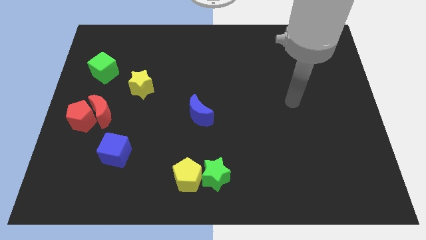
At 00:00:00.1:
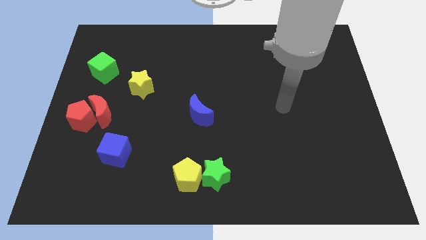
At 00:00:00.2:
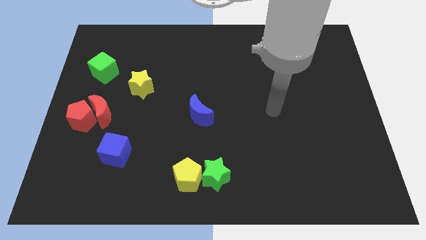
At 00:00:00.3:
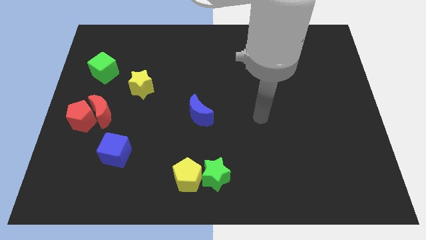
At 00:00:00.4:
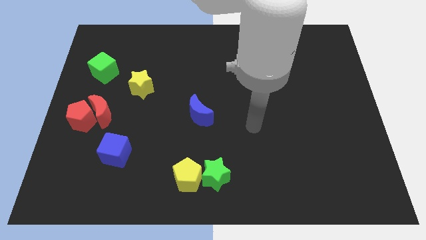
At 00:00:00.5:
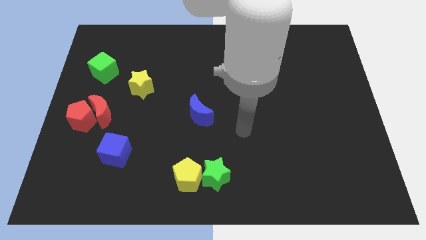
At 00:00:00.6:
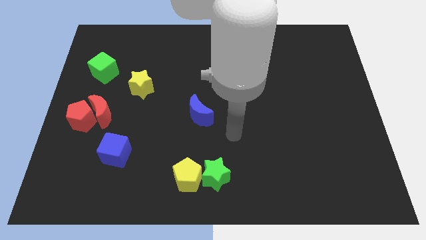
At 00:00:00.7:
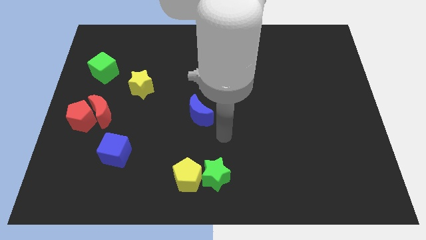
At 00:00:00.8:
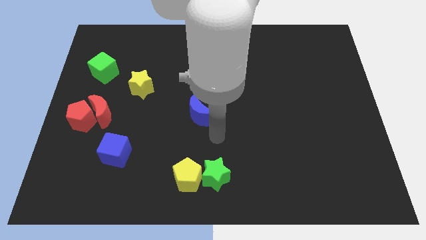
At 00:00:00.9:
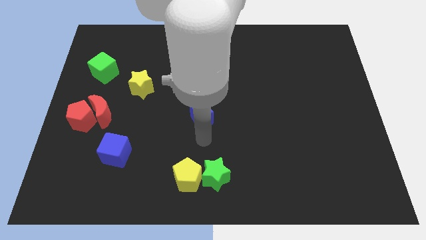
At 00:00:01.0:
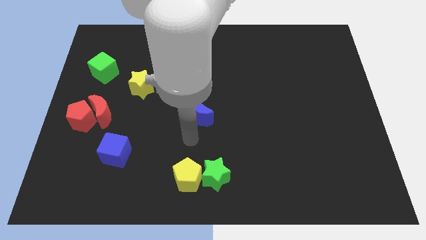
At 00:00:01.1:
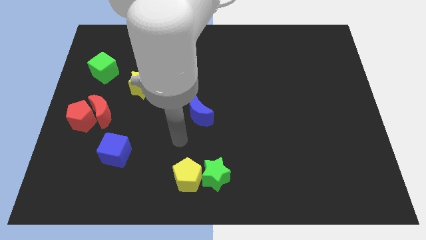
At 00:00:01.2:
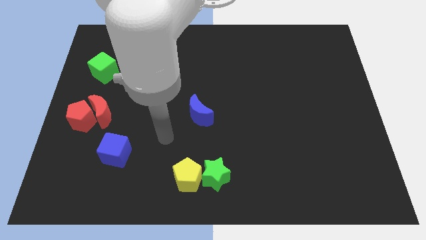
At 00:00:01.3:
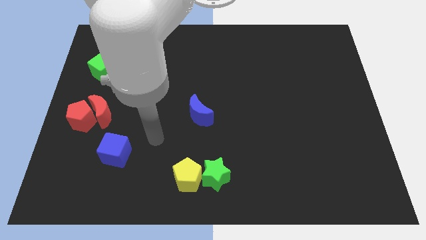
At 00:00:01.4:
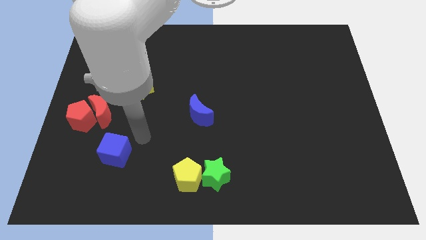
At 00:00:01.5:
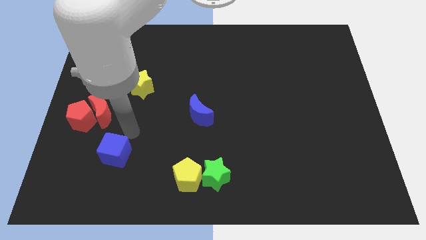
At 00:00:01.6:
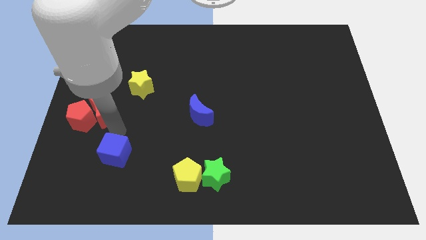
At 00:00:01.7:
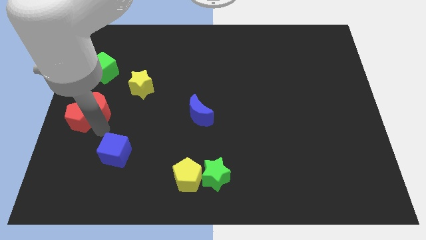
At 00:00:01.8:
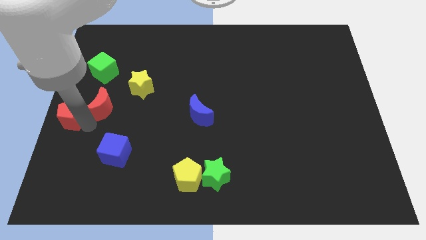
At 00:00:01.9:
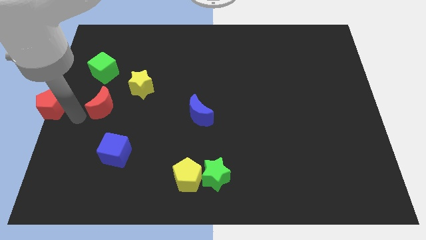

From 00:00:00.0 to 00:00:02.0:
move the red moon away from the red pentagon

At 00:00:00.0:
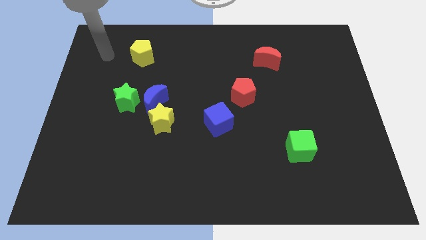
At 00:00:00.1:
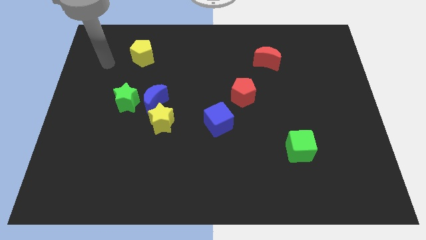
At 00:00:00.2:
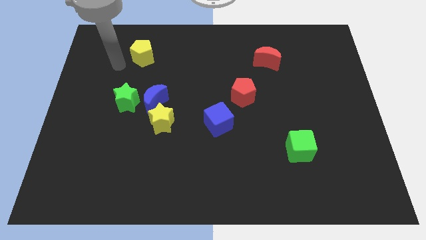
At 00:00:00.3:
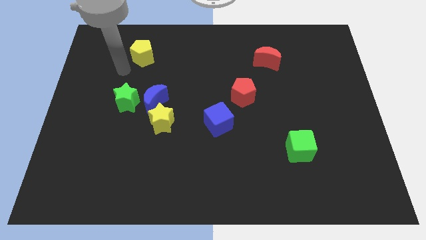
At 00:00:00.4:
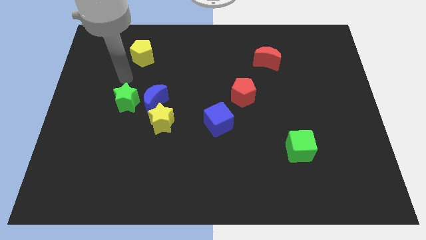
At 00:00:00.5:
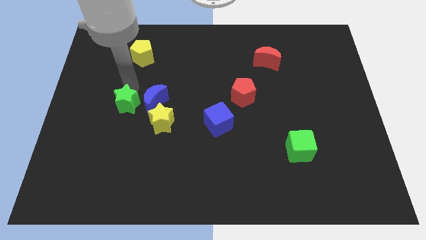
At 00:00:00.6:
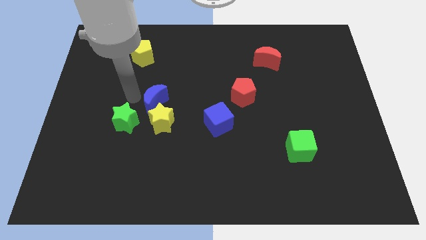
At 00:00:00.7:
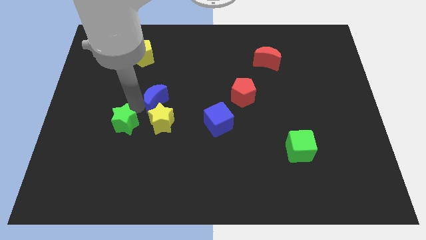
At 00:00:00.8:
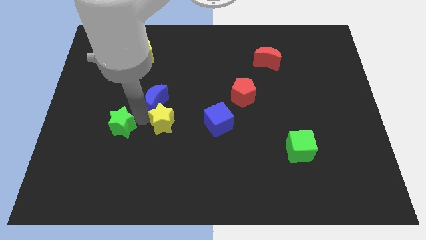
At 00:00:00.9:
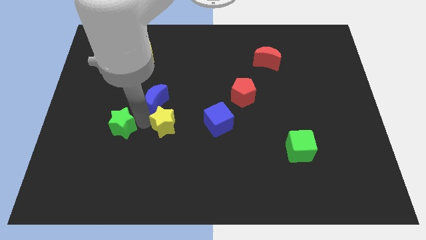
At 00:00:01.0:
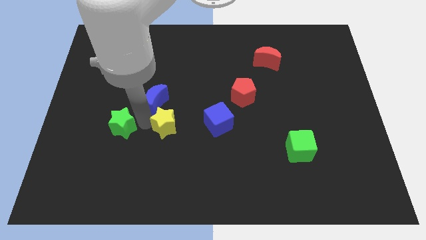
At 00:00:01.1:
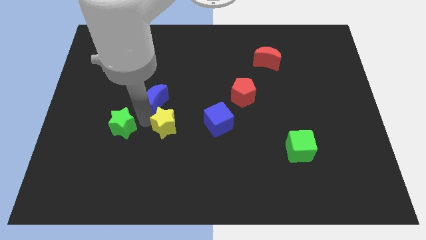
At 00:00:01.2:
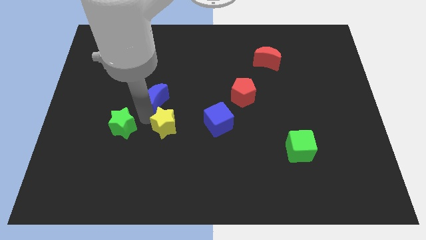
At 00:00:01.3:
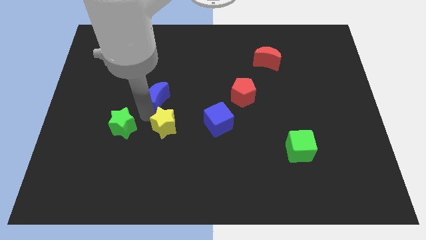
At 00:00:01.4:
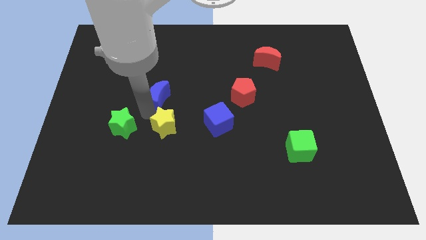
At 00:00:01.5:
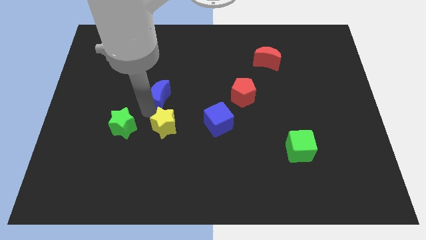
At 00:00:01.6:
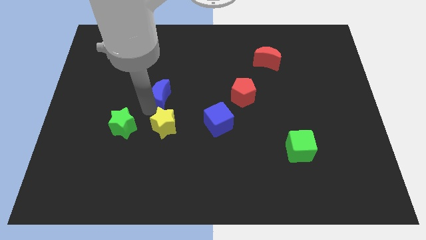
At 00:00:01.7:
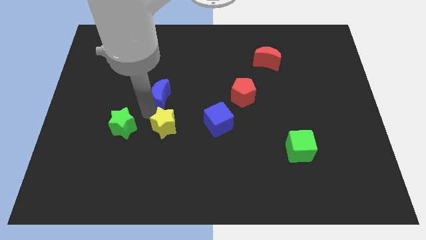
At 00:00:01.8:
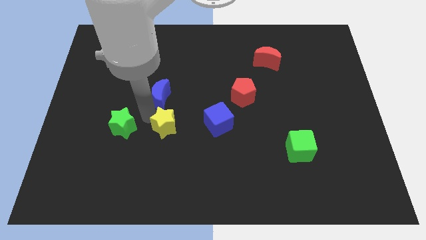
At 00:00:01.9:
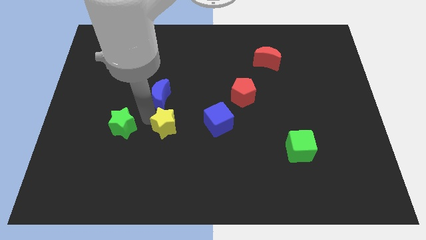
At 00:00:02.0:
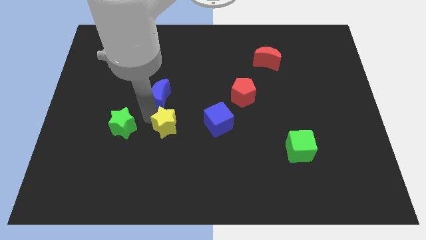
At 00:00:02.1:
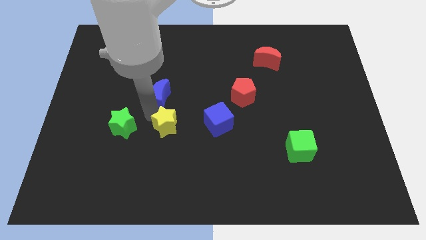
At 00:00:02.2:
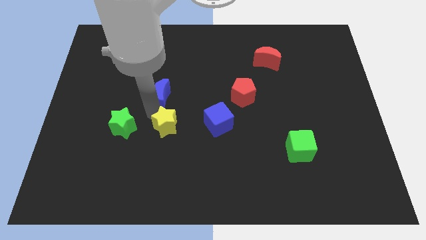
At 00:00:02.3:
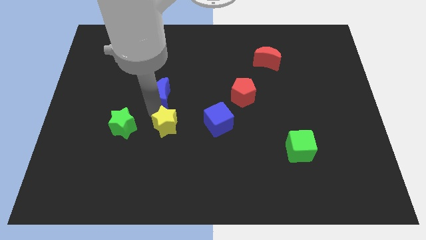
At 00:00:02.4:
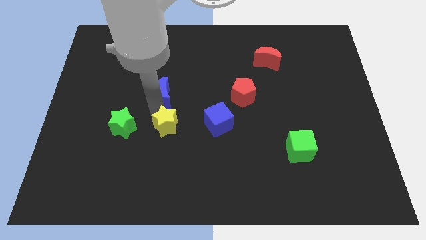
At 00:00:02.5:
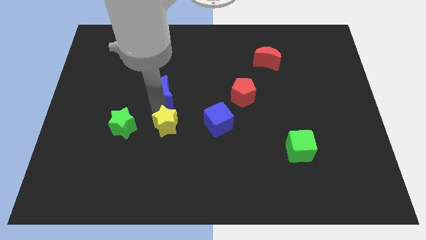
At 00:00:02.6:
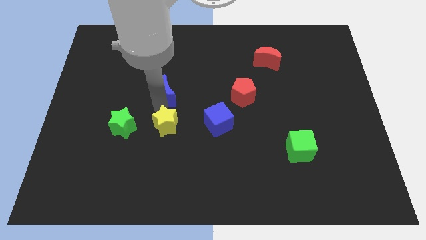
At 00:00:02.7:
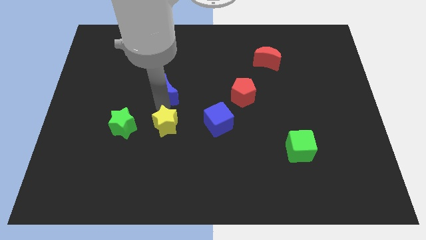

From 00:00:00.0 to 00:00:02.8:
separate the blue moon from the yellow star and green star

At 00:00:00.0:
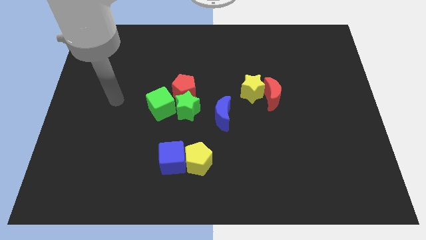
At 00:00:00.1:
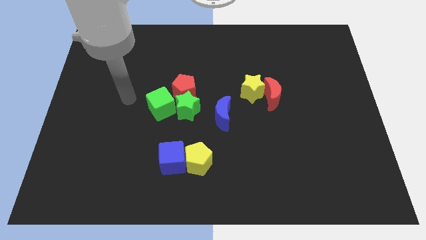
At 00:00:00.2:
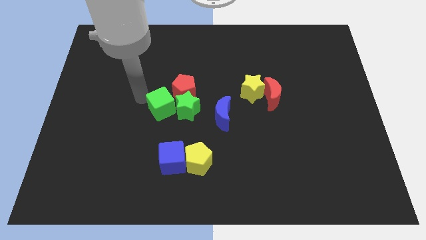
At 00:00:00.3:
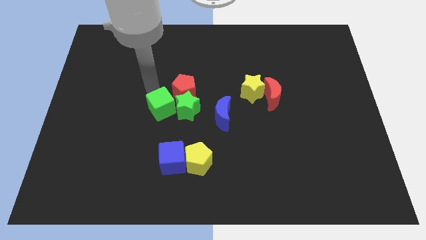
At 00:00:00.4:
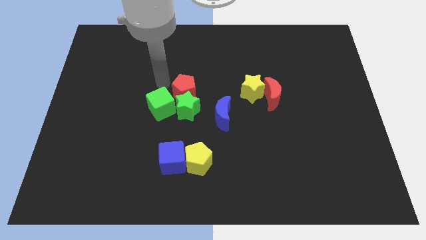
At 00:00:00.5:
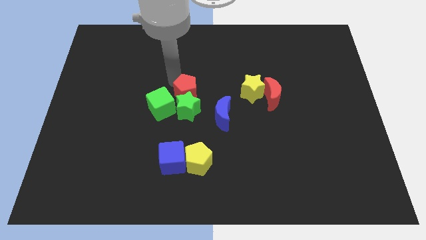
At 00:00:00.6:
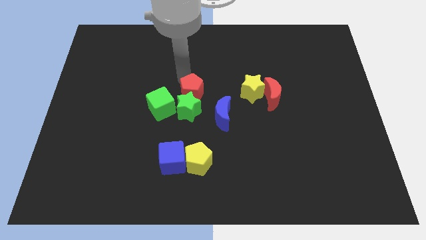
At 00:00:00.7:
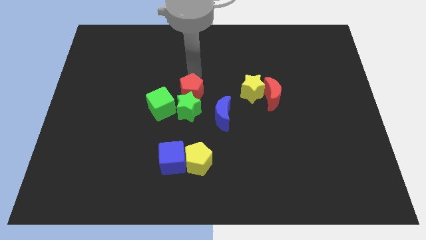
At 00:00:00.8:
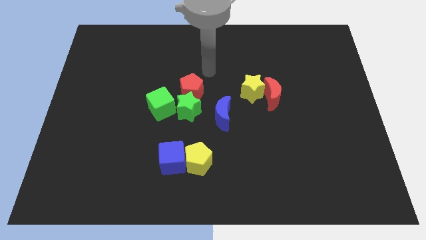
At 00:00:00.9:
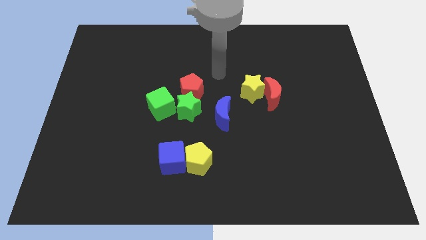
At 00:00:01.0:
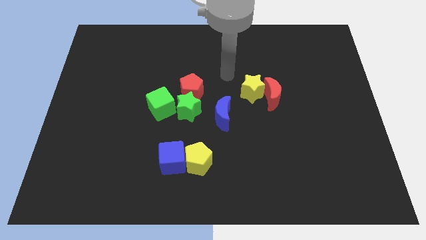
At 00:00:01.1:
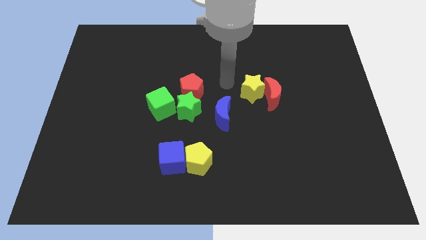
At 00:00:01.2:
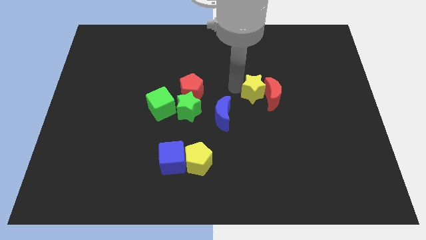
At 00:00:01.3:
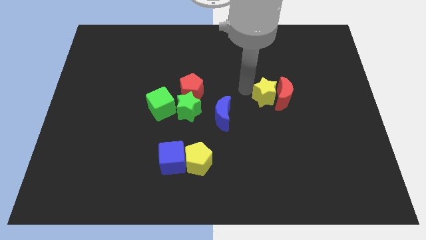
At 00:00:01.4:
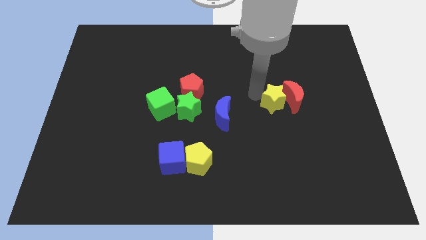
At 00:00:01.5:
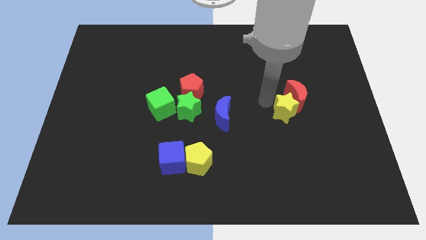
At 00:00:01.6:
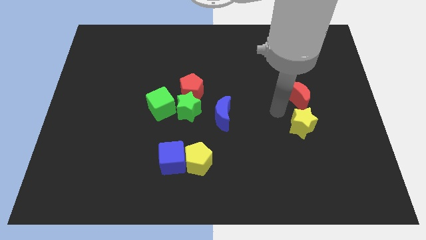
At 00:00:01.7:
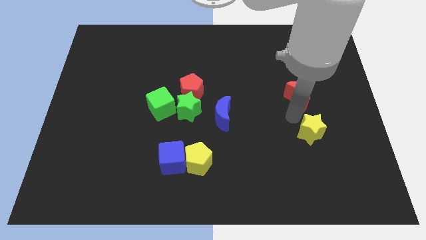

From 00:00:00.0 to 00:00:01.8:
pull the red moon apart from the yellow star

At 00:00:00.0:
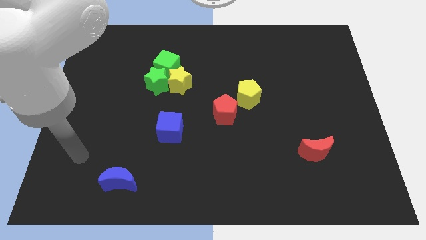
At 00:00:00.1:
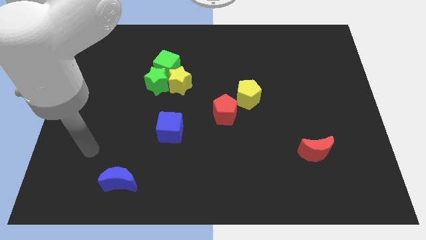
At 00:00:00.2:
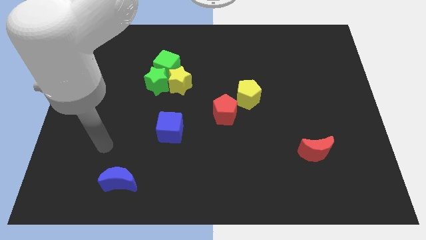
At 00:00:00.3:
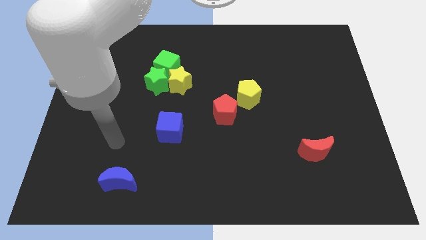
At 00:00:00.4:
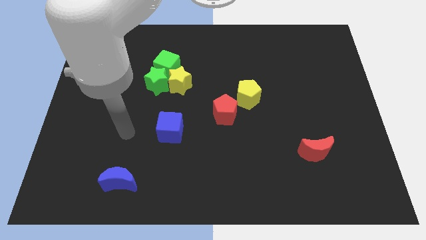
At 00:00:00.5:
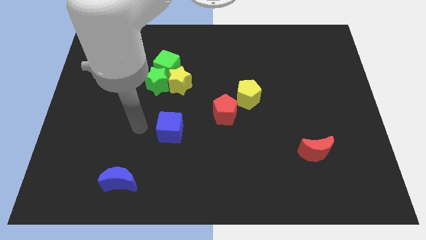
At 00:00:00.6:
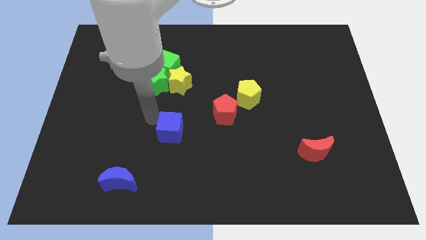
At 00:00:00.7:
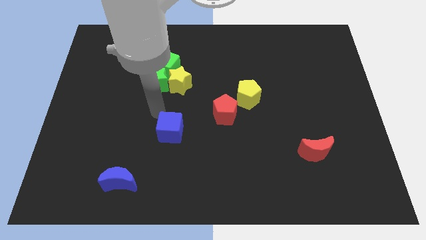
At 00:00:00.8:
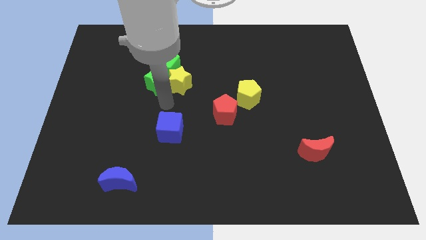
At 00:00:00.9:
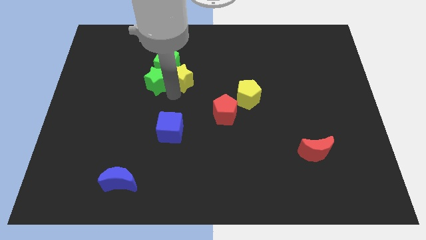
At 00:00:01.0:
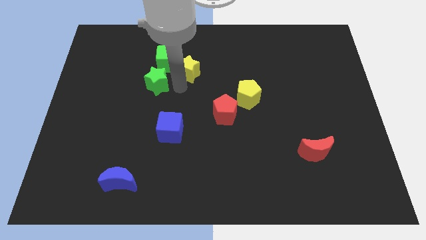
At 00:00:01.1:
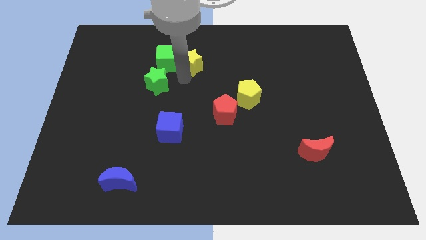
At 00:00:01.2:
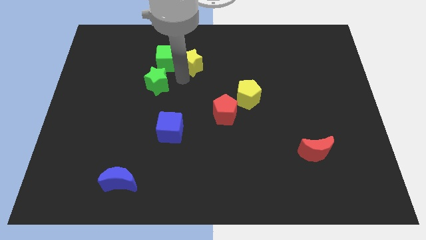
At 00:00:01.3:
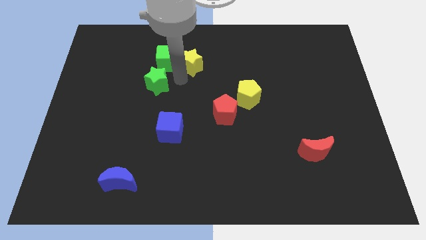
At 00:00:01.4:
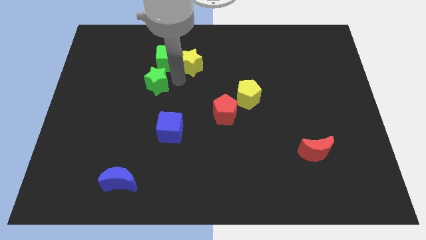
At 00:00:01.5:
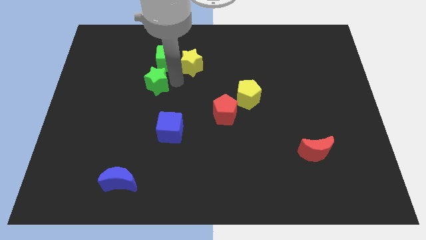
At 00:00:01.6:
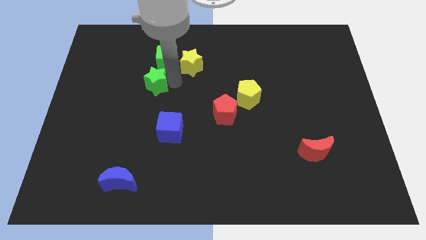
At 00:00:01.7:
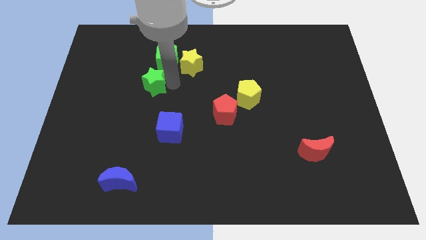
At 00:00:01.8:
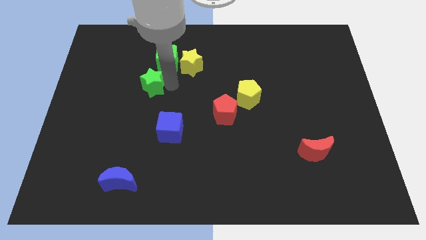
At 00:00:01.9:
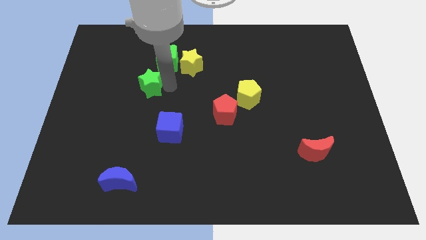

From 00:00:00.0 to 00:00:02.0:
move the green star away from the yellow star and green cube

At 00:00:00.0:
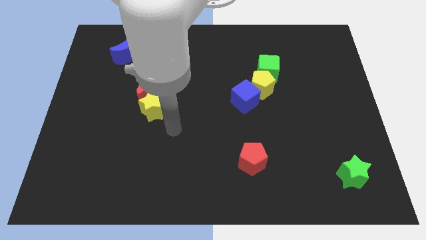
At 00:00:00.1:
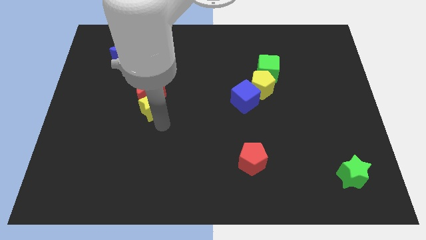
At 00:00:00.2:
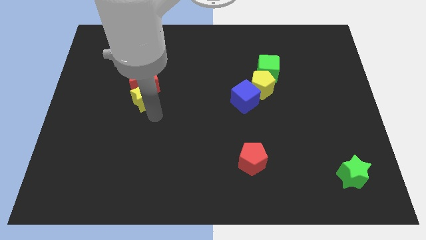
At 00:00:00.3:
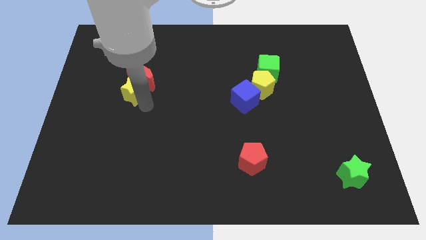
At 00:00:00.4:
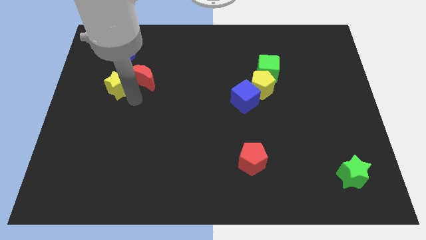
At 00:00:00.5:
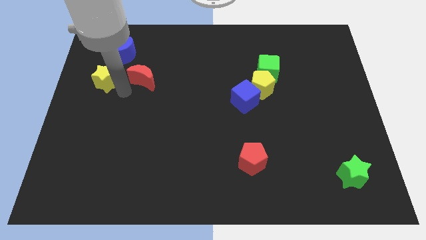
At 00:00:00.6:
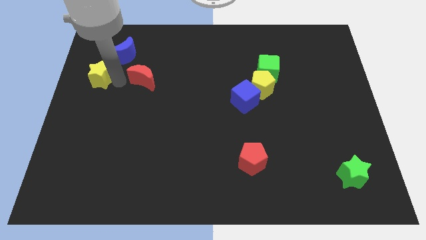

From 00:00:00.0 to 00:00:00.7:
separate the red moon from the yellow star
